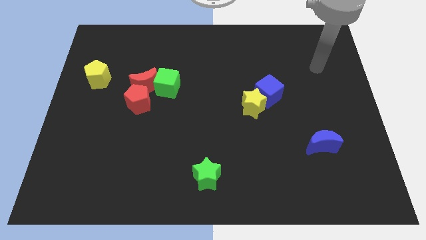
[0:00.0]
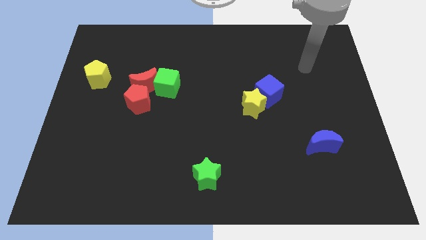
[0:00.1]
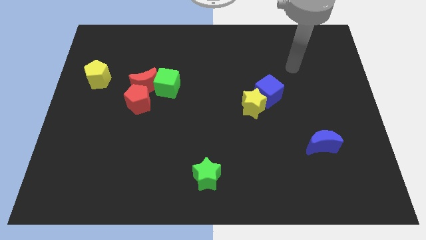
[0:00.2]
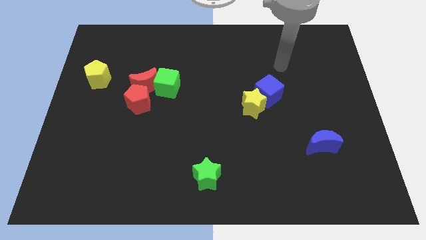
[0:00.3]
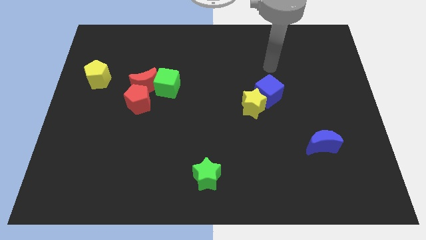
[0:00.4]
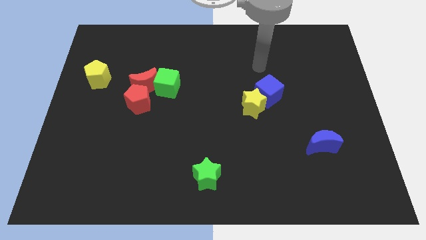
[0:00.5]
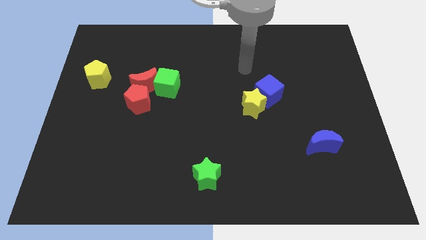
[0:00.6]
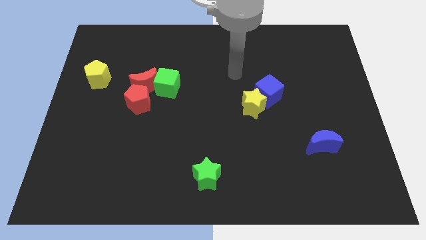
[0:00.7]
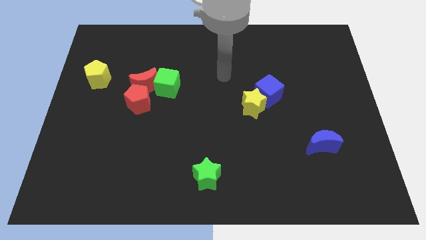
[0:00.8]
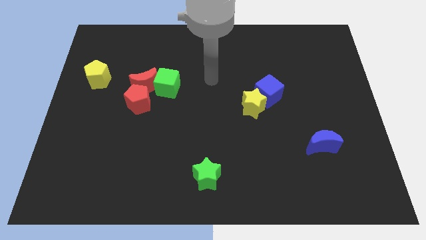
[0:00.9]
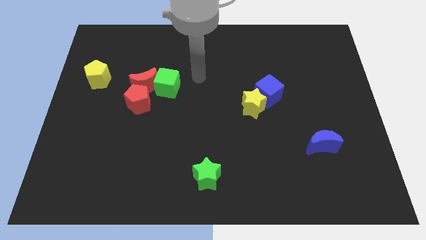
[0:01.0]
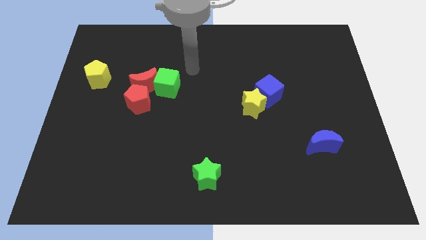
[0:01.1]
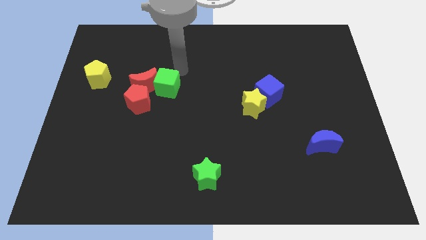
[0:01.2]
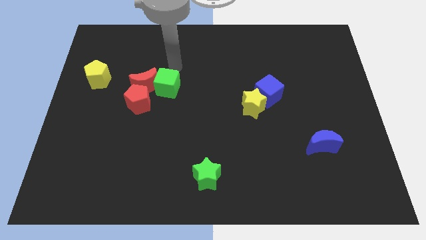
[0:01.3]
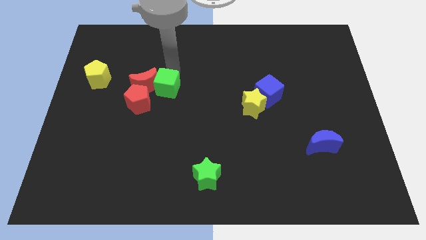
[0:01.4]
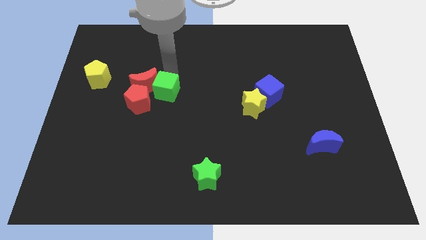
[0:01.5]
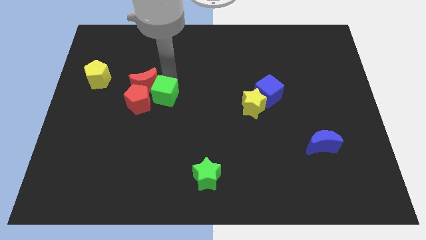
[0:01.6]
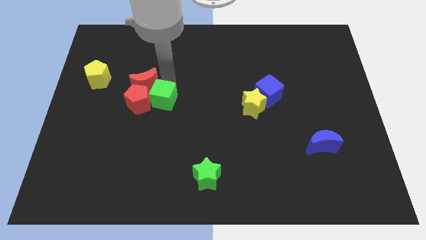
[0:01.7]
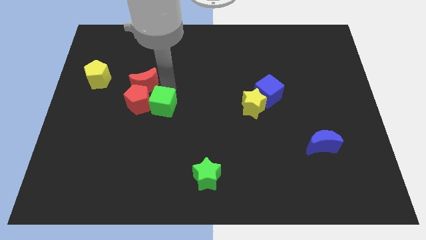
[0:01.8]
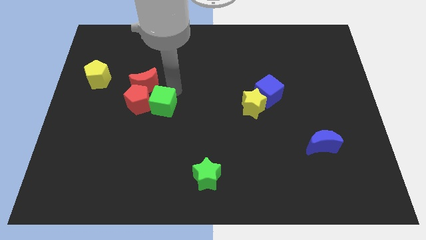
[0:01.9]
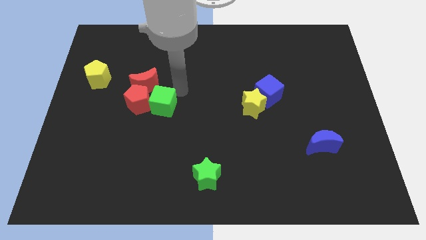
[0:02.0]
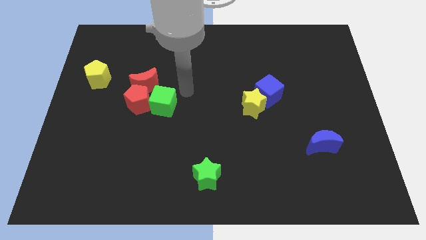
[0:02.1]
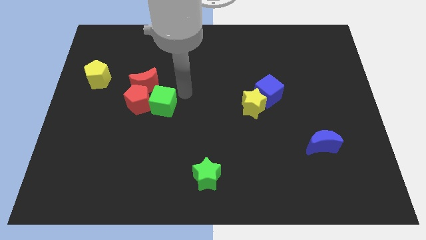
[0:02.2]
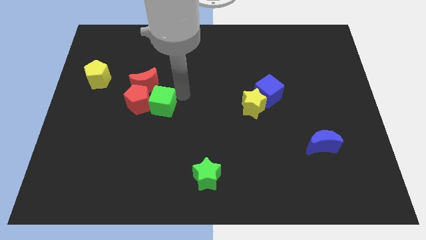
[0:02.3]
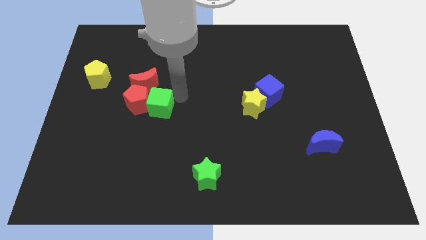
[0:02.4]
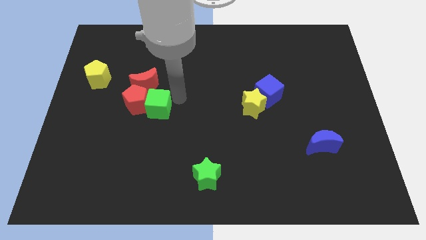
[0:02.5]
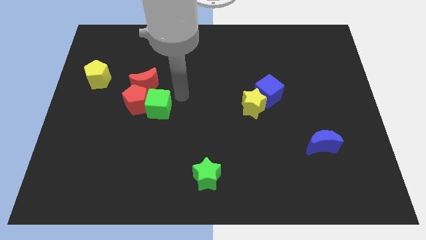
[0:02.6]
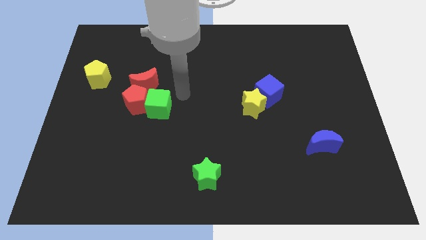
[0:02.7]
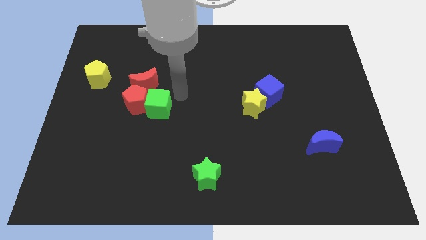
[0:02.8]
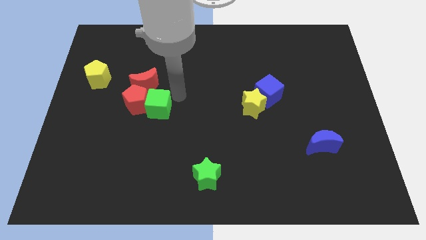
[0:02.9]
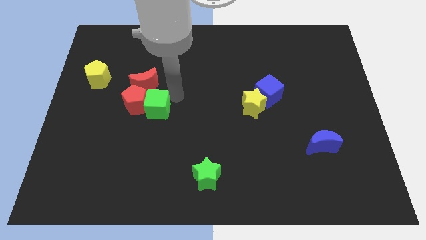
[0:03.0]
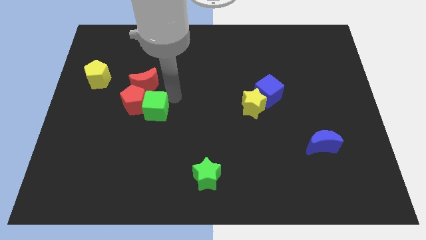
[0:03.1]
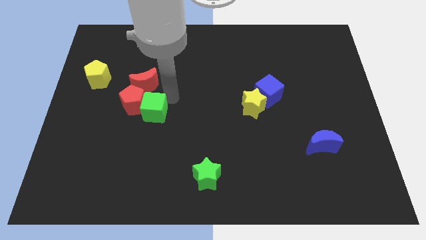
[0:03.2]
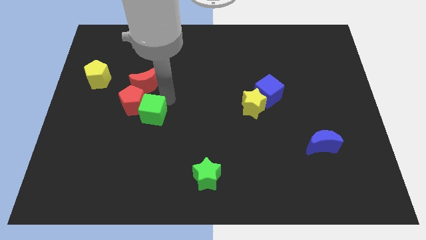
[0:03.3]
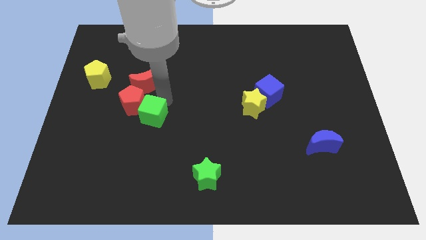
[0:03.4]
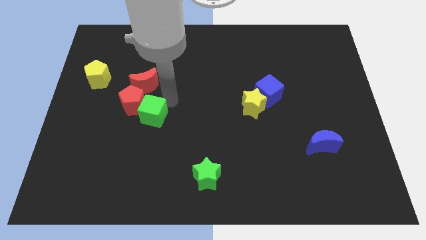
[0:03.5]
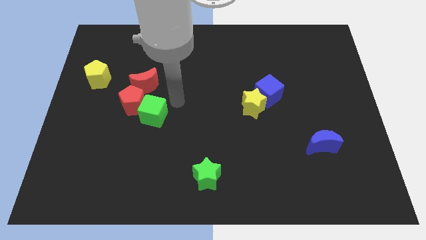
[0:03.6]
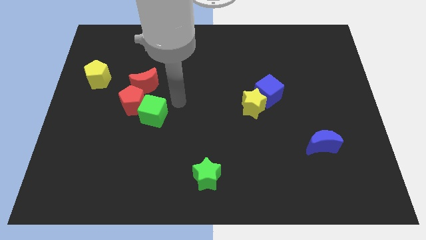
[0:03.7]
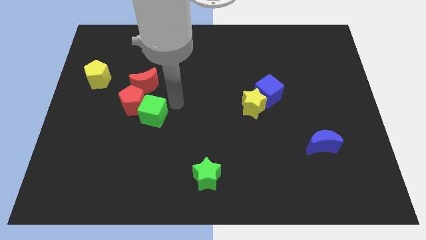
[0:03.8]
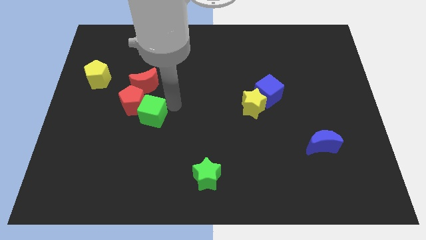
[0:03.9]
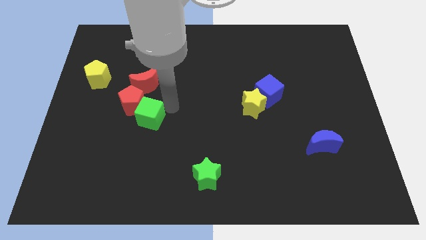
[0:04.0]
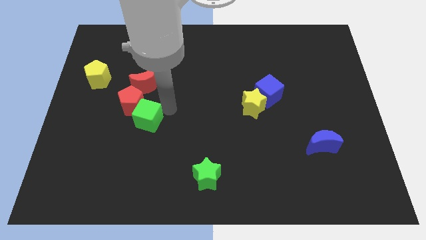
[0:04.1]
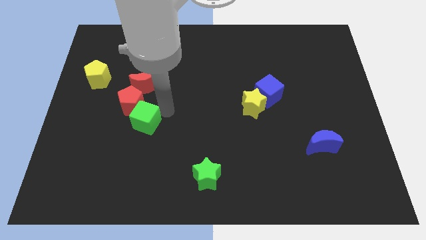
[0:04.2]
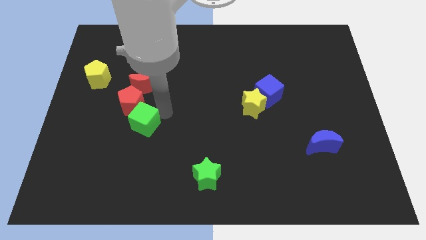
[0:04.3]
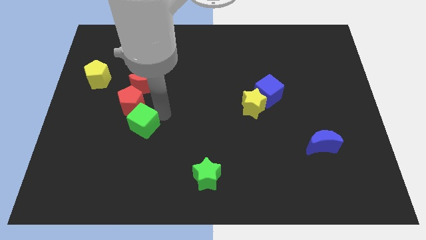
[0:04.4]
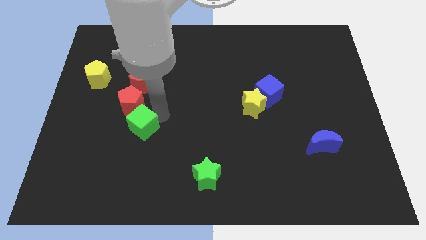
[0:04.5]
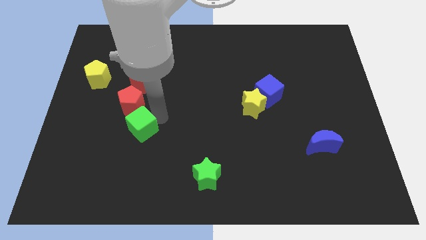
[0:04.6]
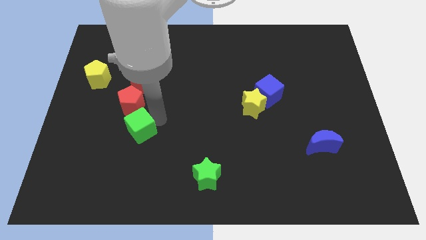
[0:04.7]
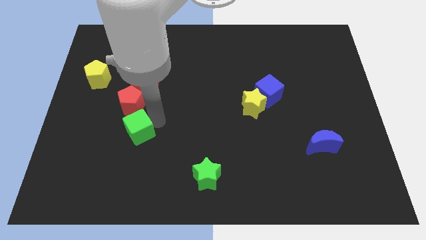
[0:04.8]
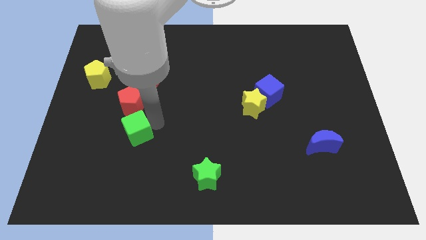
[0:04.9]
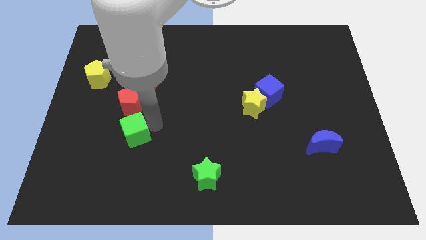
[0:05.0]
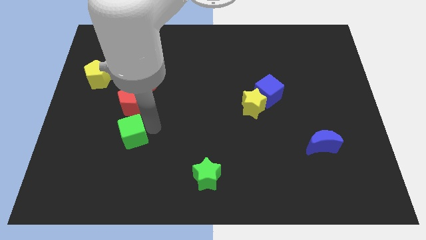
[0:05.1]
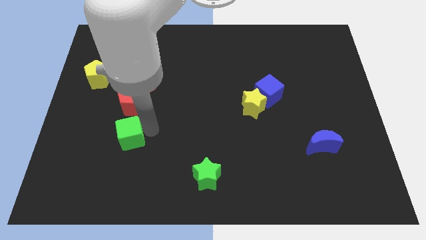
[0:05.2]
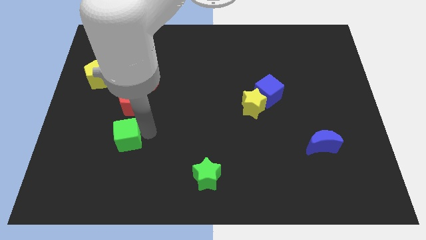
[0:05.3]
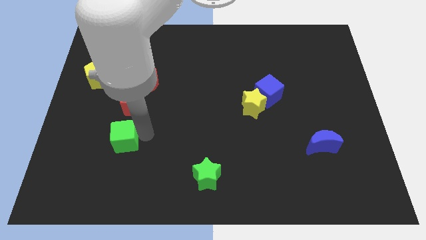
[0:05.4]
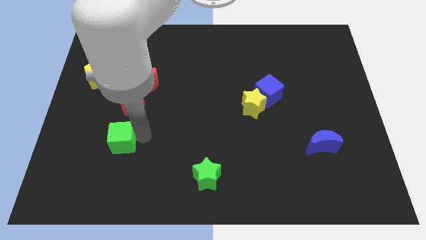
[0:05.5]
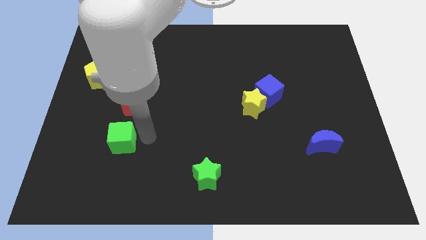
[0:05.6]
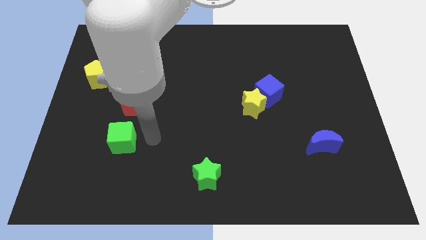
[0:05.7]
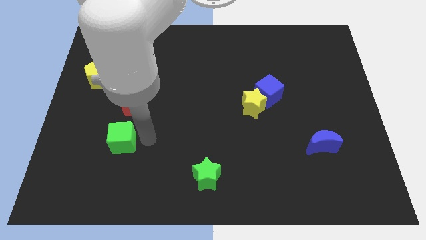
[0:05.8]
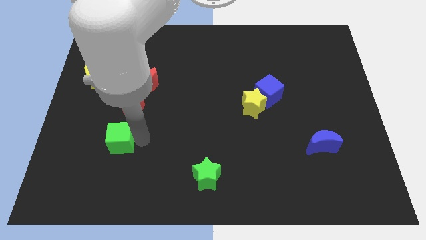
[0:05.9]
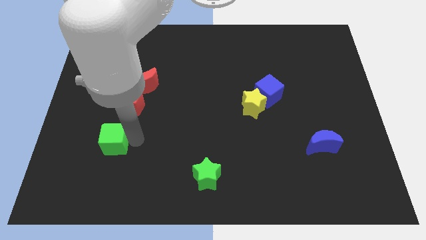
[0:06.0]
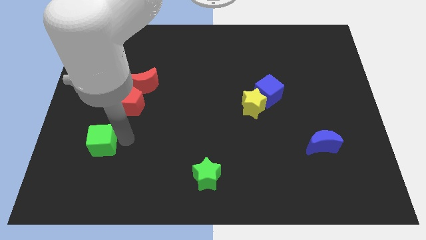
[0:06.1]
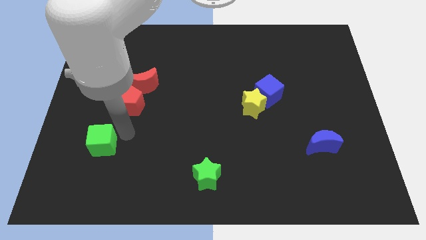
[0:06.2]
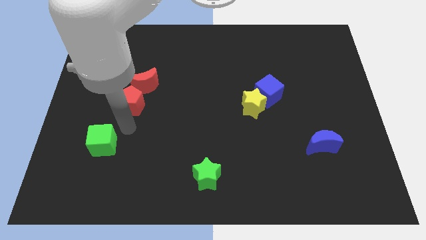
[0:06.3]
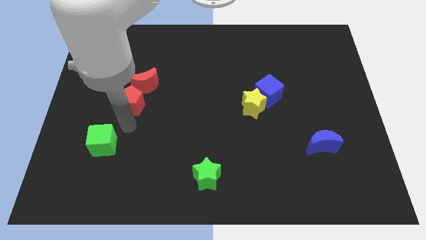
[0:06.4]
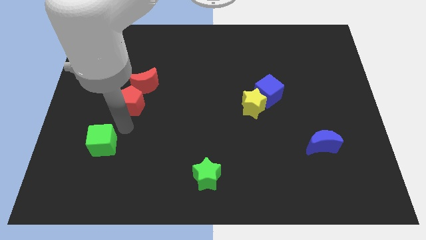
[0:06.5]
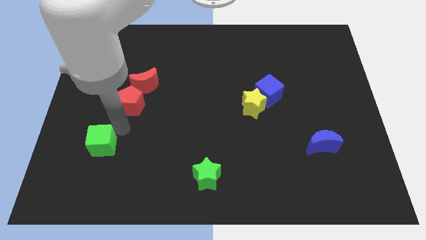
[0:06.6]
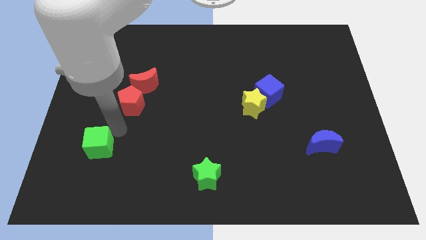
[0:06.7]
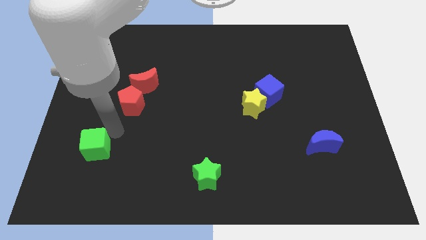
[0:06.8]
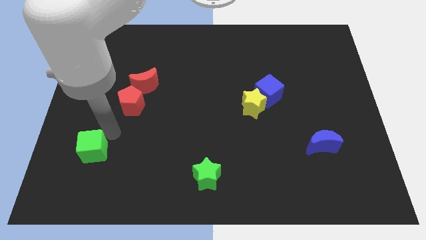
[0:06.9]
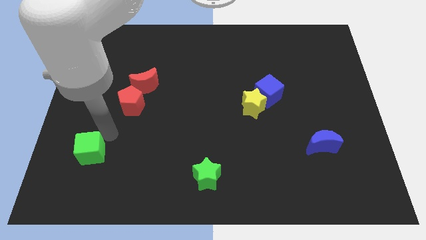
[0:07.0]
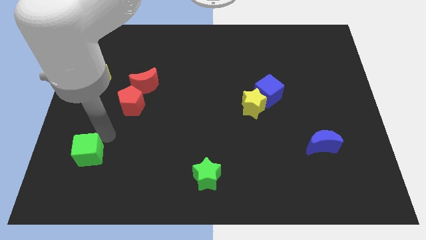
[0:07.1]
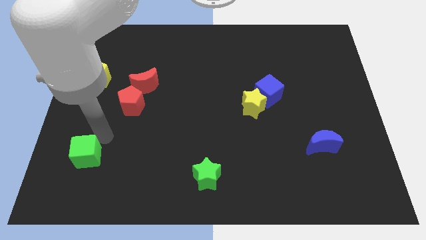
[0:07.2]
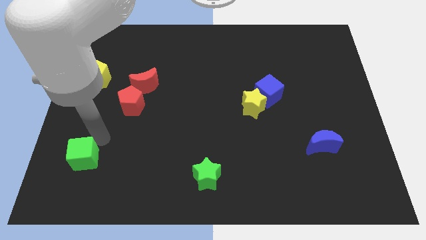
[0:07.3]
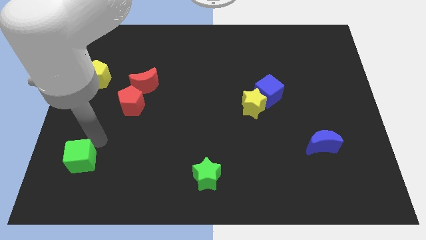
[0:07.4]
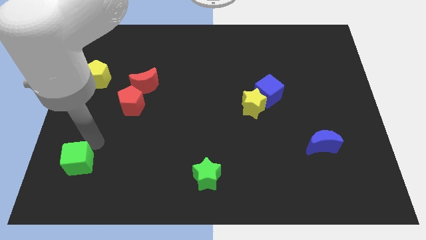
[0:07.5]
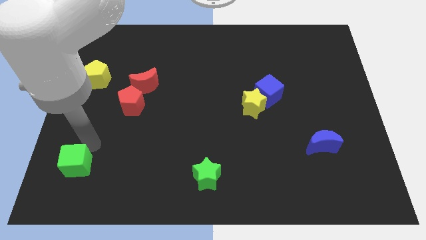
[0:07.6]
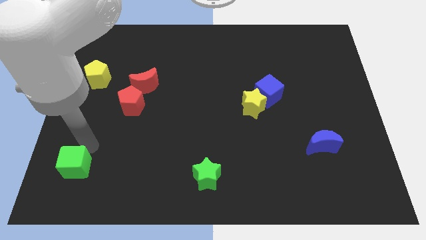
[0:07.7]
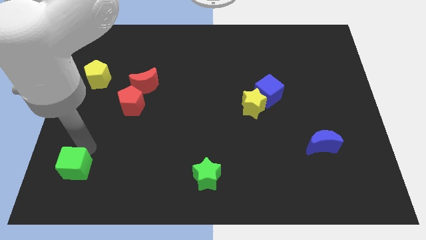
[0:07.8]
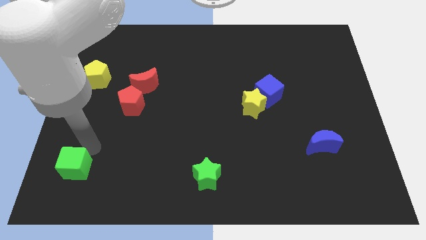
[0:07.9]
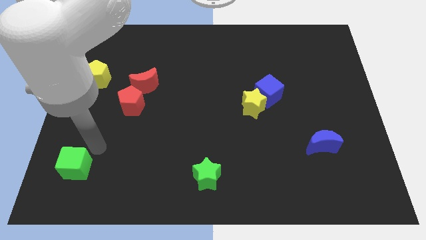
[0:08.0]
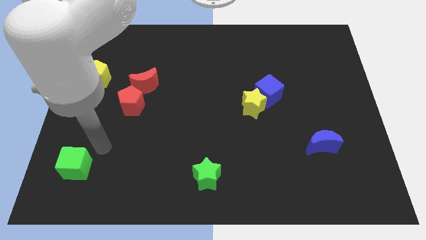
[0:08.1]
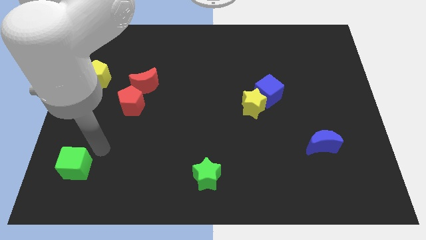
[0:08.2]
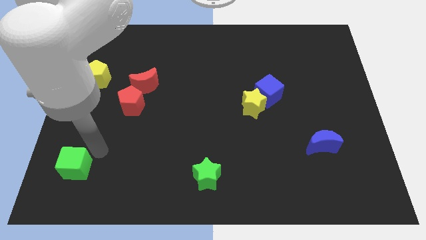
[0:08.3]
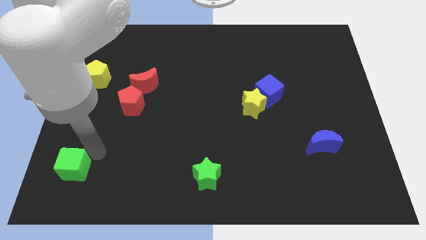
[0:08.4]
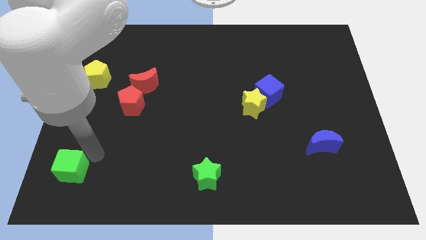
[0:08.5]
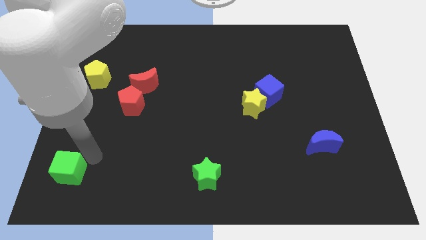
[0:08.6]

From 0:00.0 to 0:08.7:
move the green cube to the lower left corner
